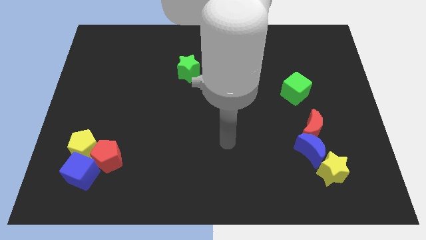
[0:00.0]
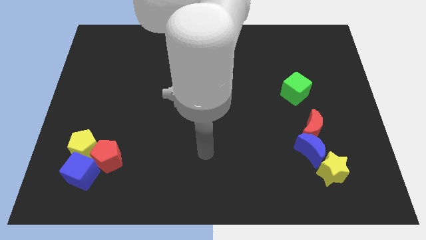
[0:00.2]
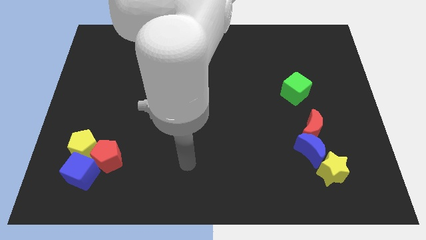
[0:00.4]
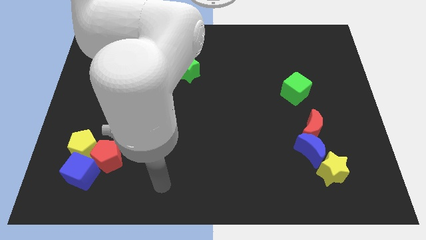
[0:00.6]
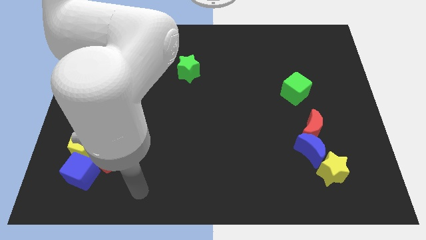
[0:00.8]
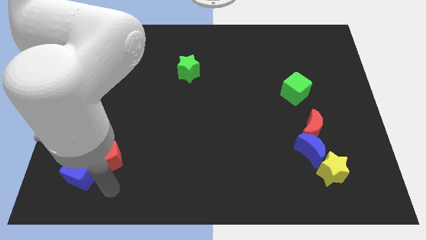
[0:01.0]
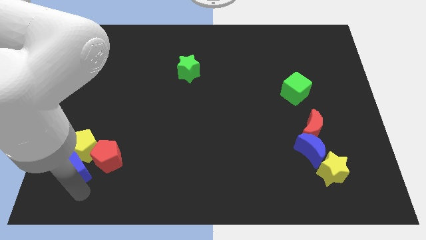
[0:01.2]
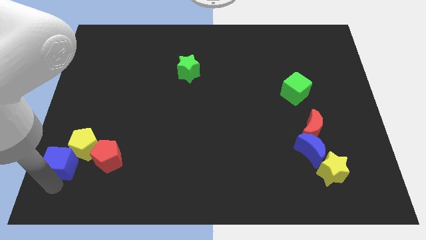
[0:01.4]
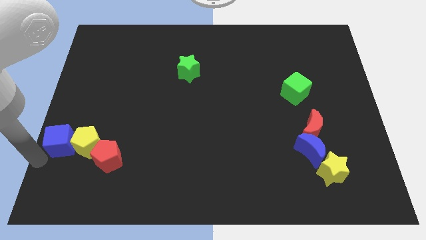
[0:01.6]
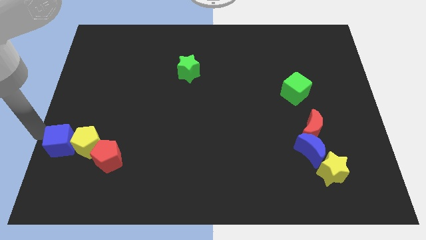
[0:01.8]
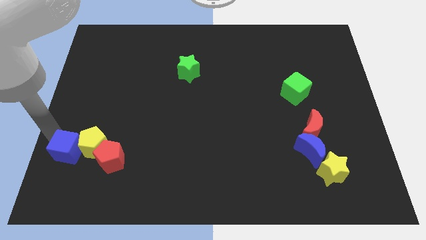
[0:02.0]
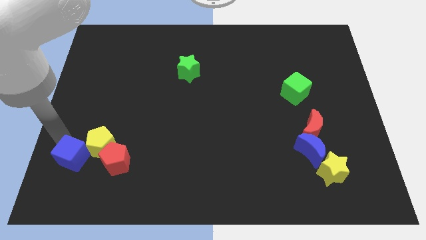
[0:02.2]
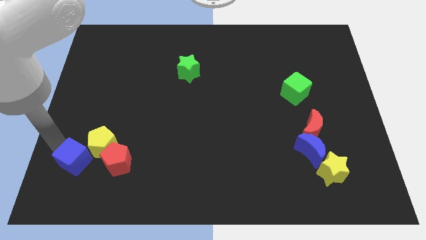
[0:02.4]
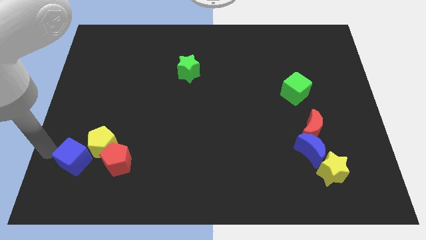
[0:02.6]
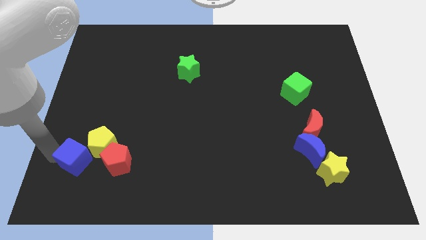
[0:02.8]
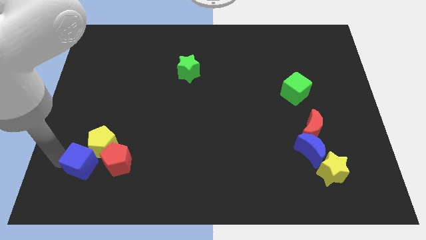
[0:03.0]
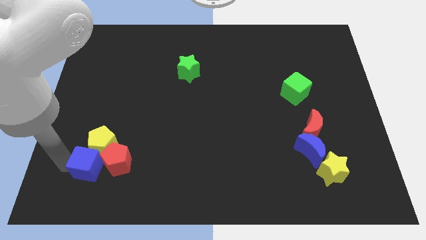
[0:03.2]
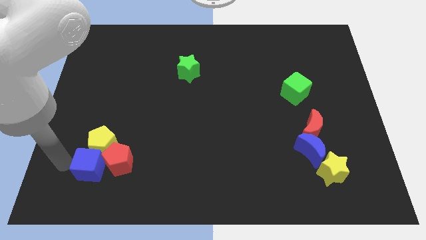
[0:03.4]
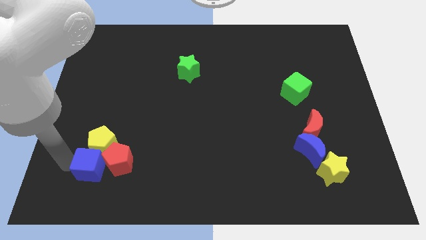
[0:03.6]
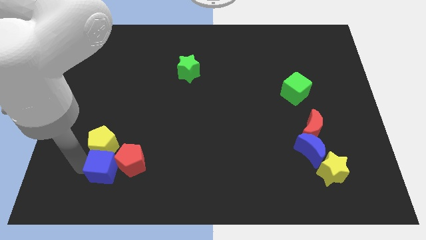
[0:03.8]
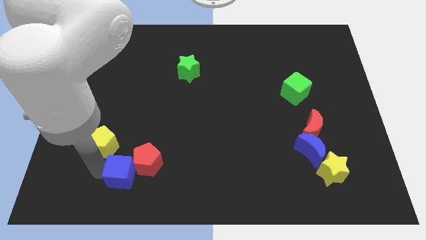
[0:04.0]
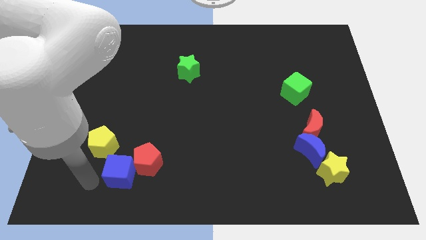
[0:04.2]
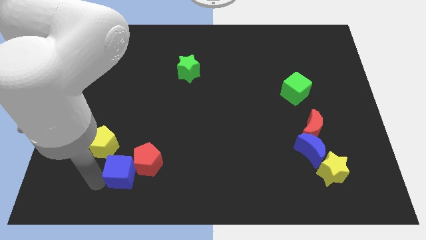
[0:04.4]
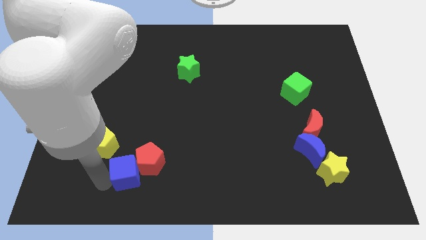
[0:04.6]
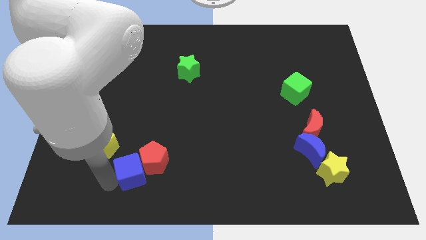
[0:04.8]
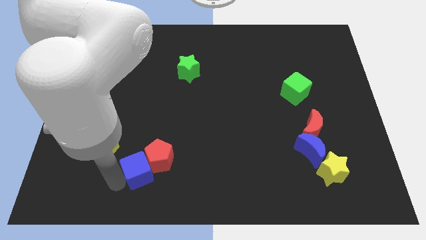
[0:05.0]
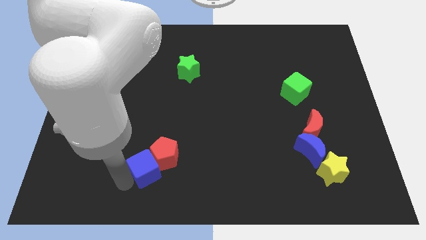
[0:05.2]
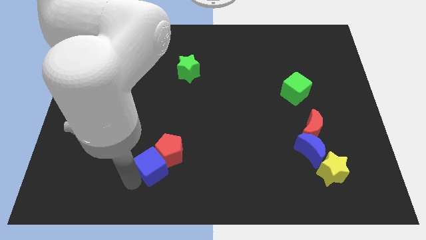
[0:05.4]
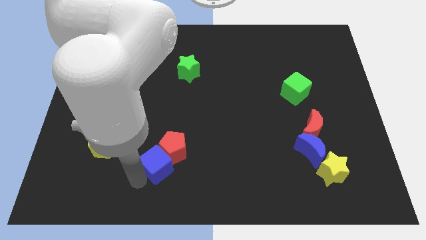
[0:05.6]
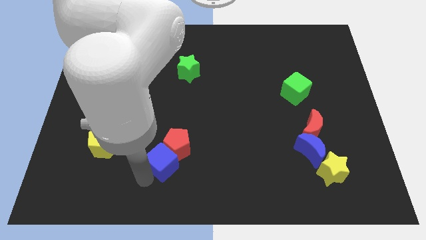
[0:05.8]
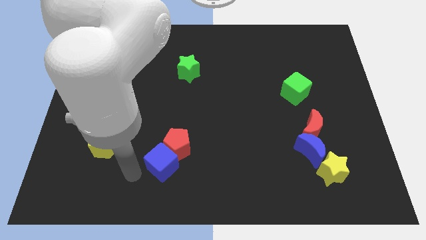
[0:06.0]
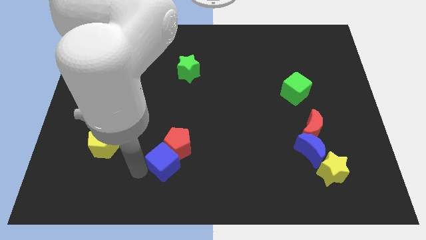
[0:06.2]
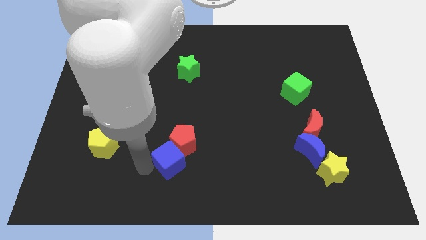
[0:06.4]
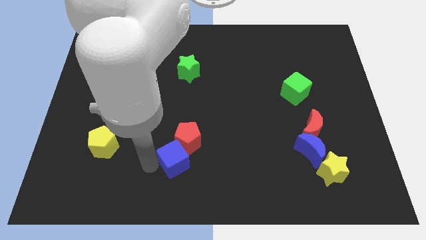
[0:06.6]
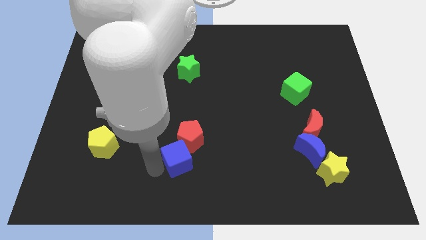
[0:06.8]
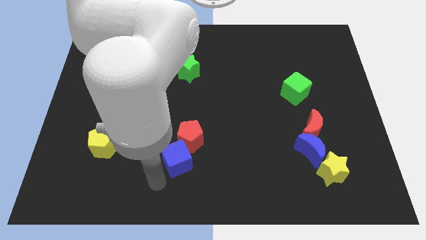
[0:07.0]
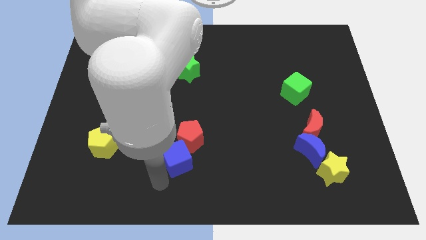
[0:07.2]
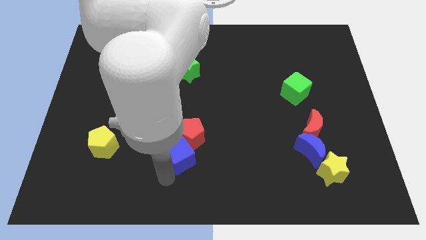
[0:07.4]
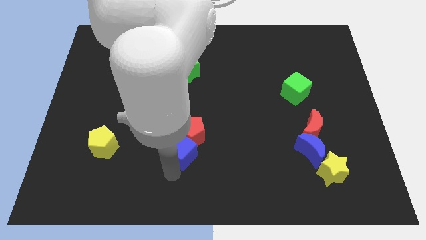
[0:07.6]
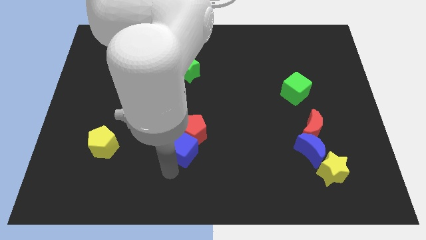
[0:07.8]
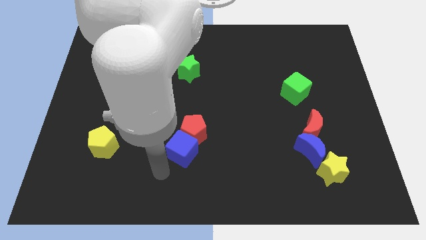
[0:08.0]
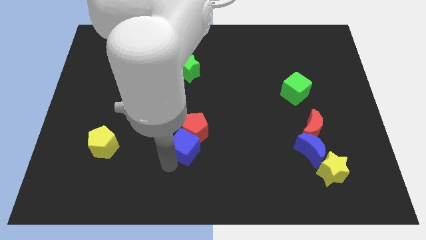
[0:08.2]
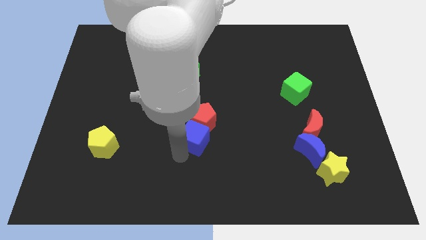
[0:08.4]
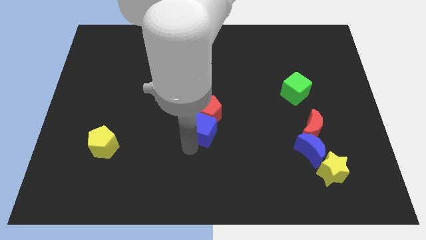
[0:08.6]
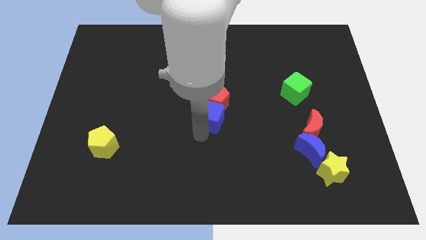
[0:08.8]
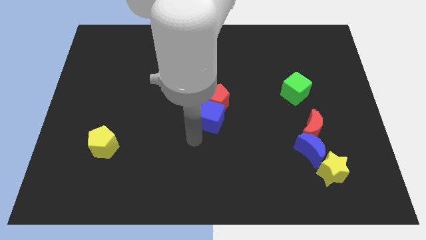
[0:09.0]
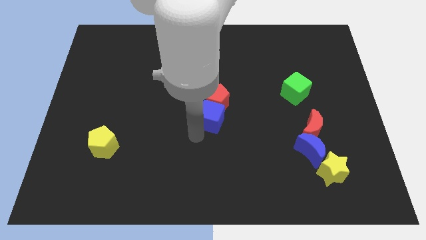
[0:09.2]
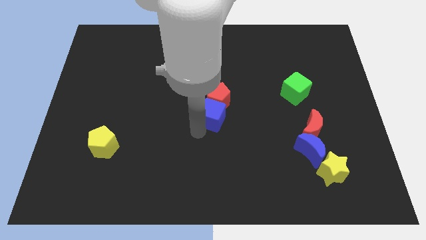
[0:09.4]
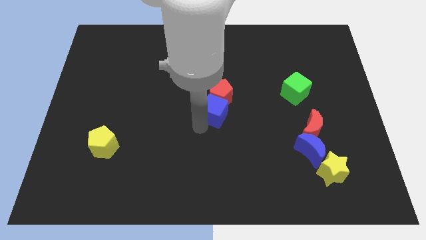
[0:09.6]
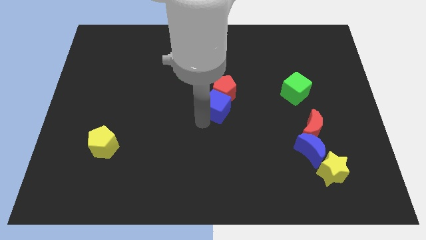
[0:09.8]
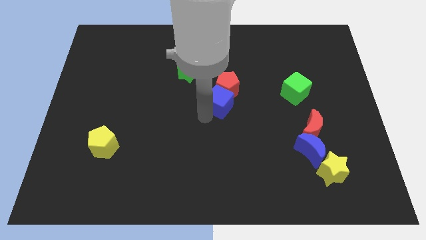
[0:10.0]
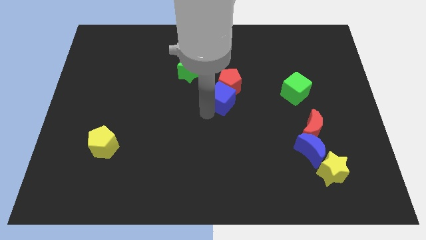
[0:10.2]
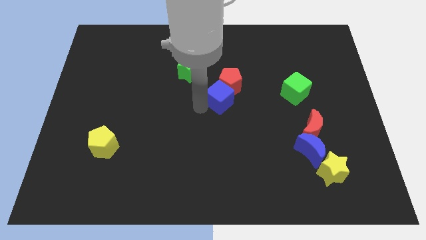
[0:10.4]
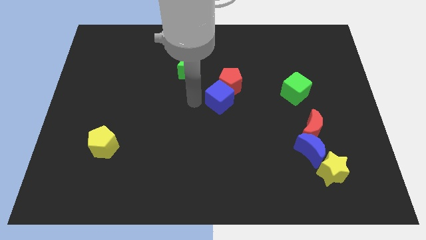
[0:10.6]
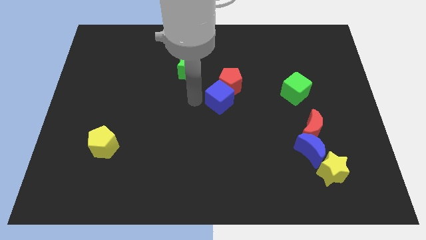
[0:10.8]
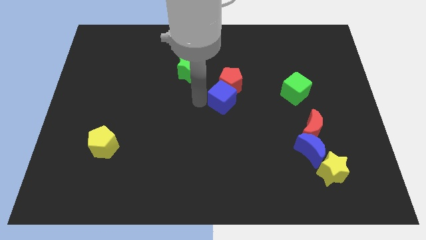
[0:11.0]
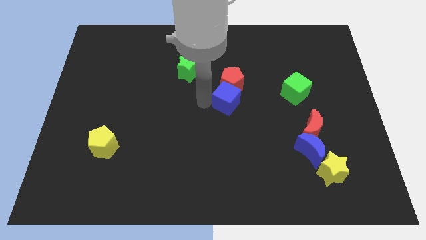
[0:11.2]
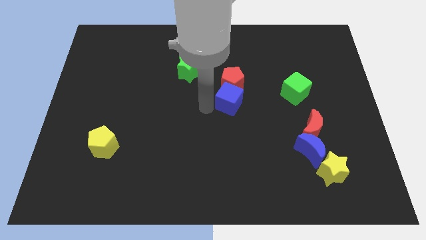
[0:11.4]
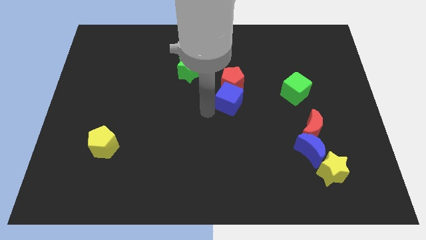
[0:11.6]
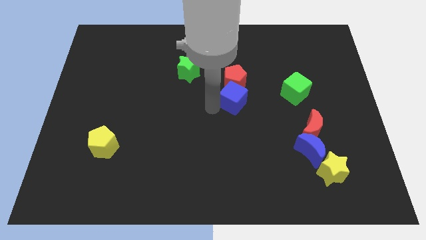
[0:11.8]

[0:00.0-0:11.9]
put the blue cube left of the green cube

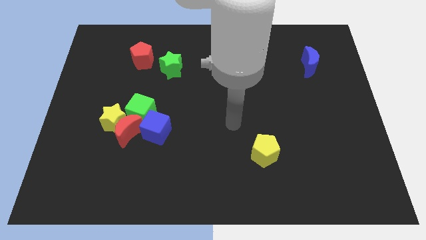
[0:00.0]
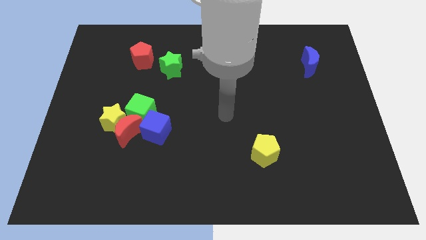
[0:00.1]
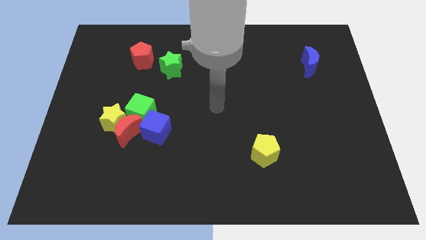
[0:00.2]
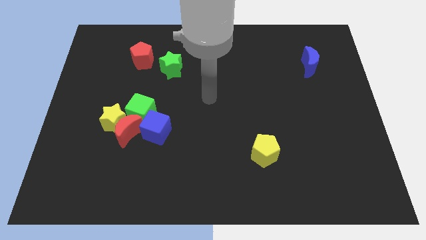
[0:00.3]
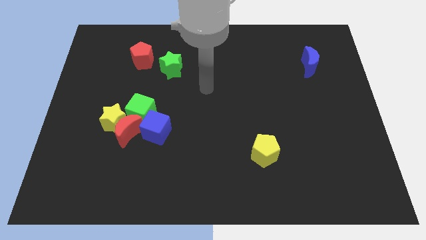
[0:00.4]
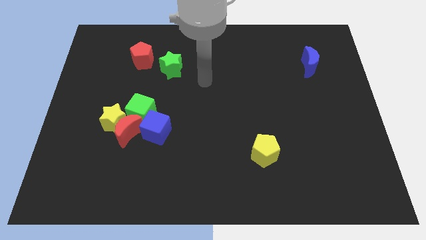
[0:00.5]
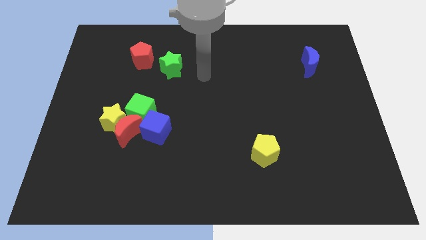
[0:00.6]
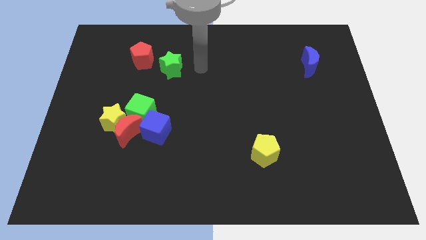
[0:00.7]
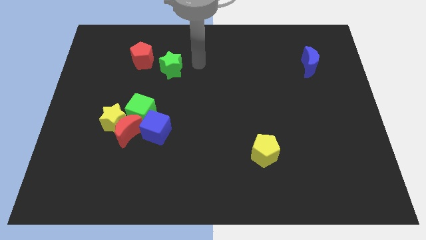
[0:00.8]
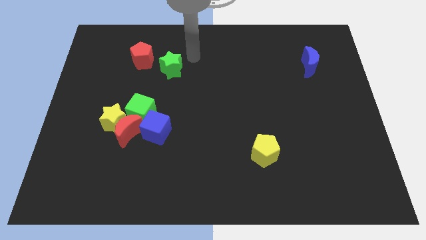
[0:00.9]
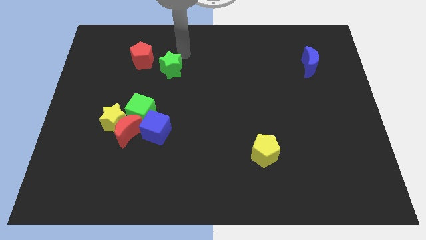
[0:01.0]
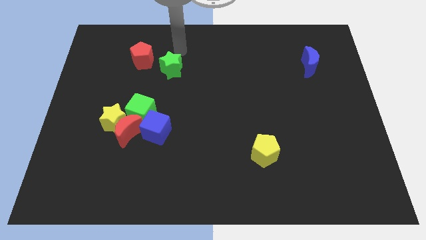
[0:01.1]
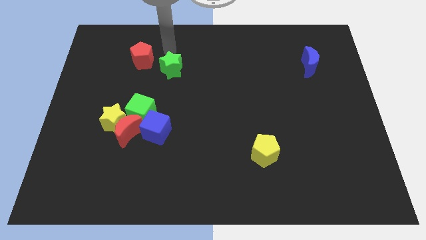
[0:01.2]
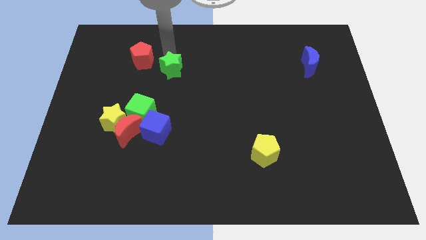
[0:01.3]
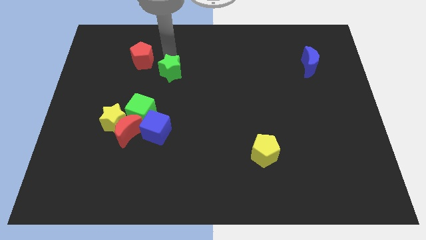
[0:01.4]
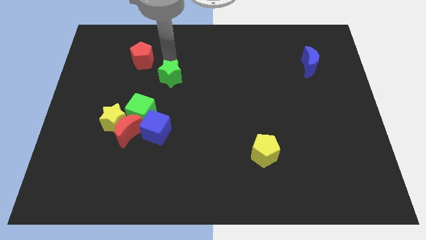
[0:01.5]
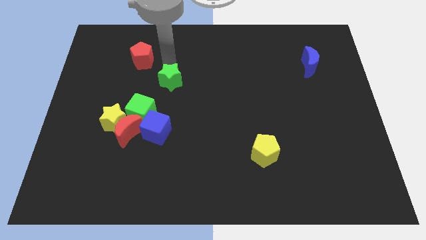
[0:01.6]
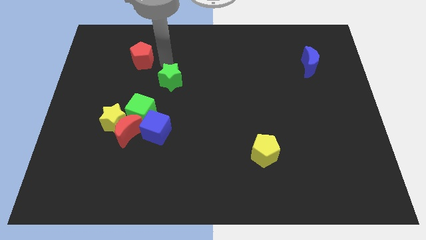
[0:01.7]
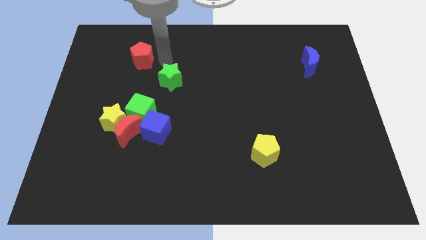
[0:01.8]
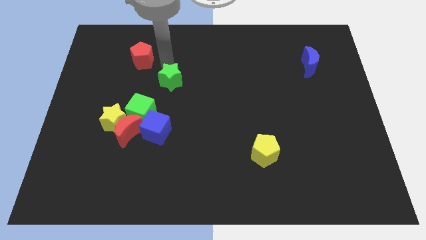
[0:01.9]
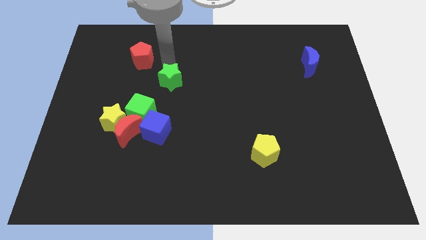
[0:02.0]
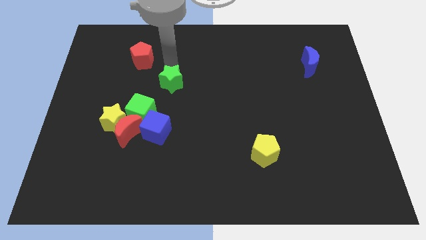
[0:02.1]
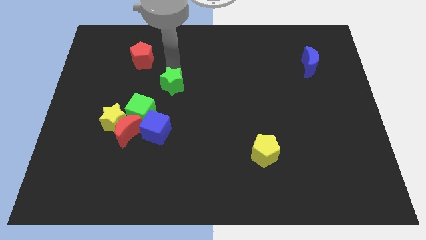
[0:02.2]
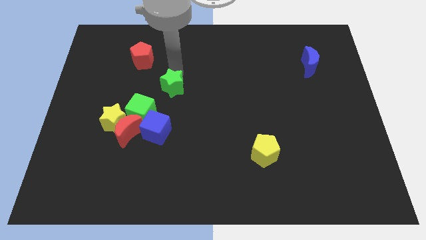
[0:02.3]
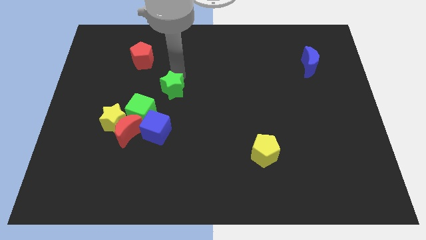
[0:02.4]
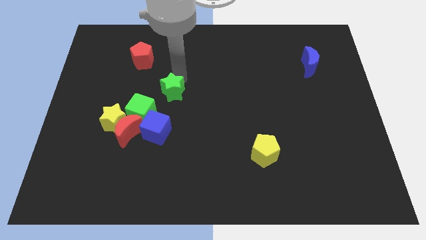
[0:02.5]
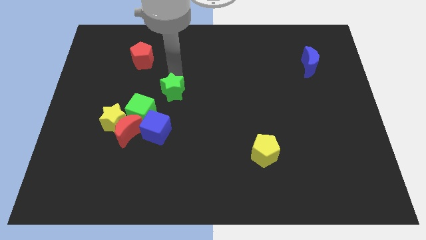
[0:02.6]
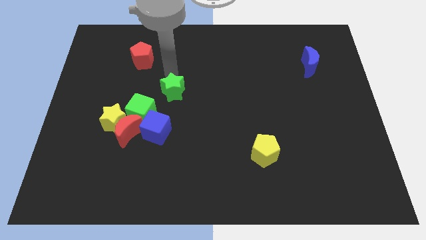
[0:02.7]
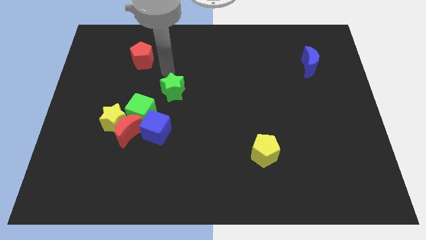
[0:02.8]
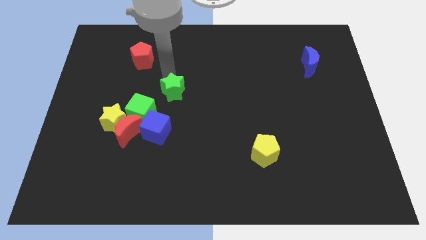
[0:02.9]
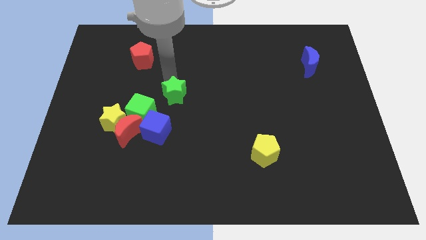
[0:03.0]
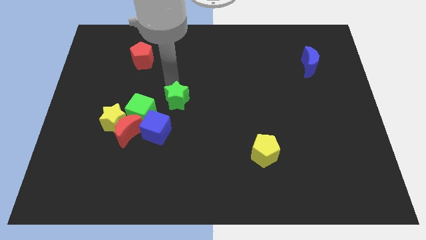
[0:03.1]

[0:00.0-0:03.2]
push the green star diagonally up and to the right of the blue cube
